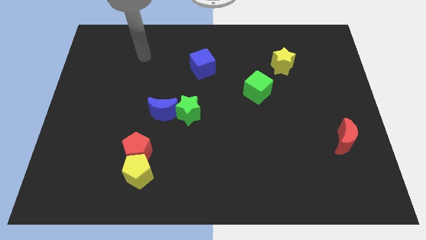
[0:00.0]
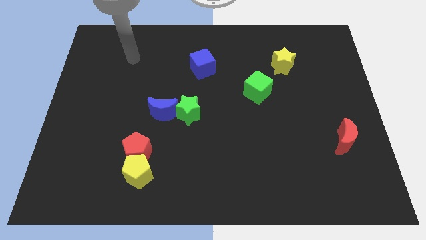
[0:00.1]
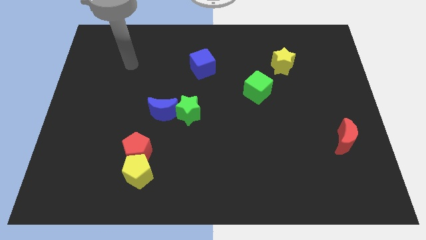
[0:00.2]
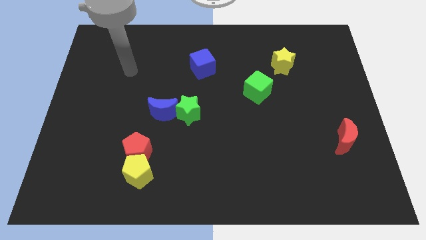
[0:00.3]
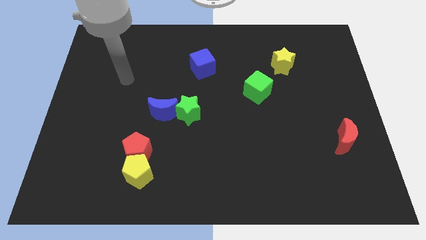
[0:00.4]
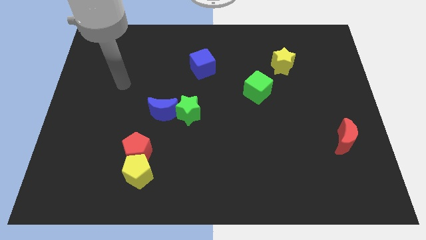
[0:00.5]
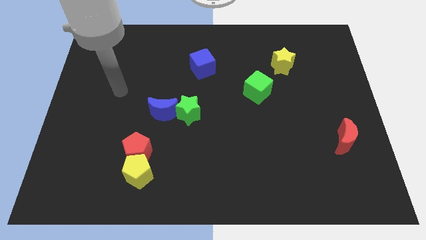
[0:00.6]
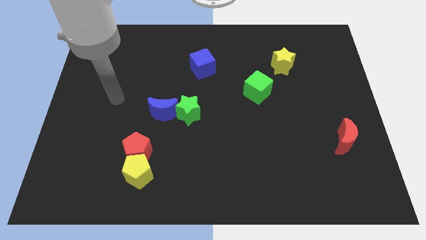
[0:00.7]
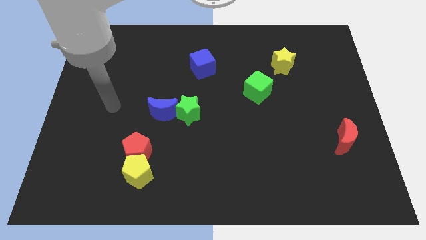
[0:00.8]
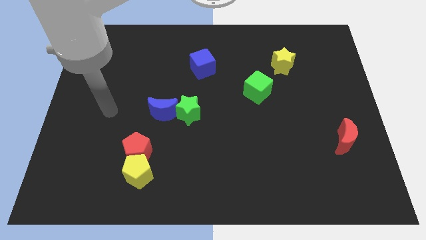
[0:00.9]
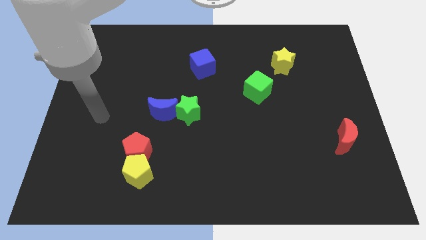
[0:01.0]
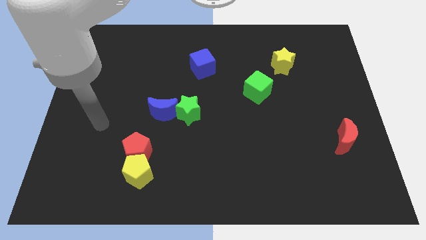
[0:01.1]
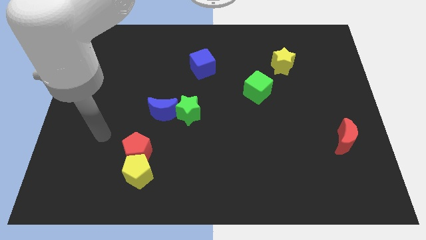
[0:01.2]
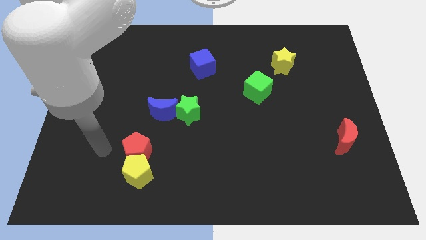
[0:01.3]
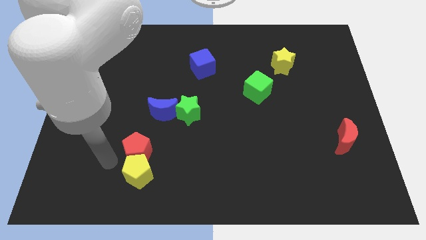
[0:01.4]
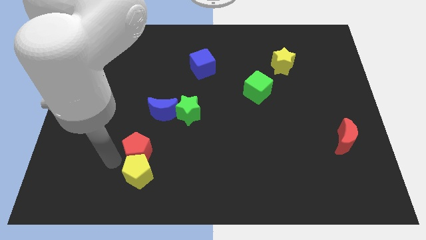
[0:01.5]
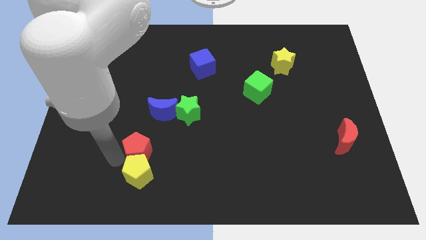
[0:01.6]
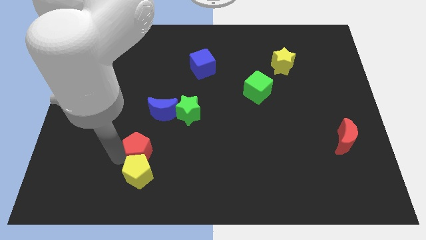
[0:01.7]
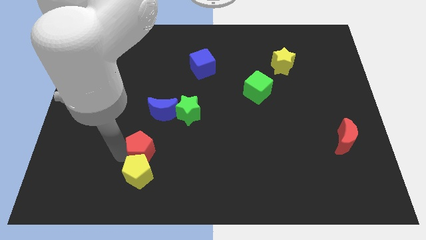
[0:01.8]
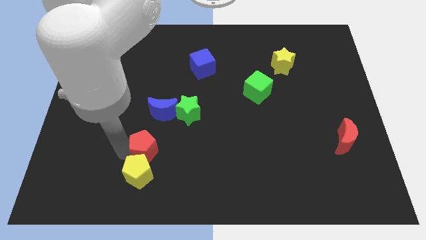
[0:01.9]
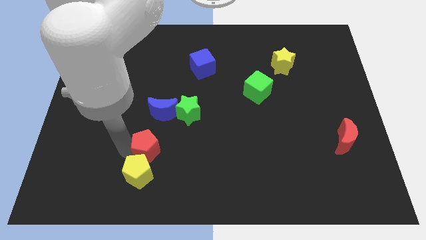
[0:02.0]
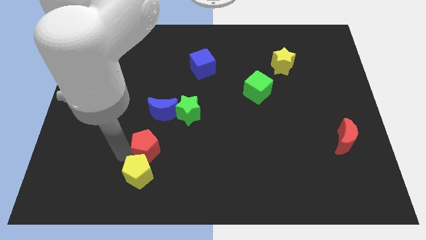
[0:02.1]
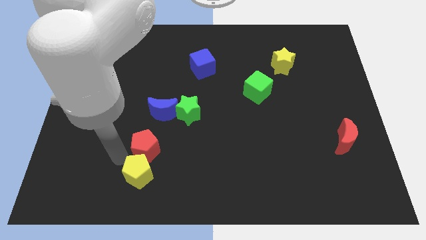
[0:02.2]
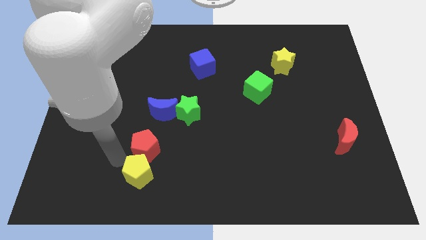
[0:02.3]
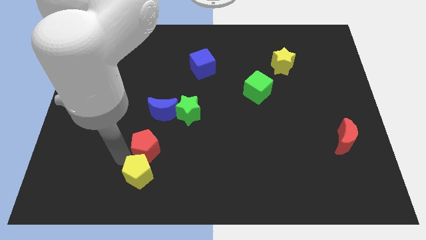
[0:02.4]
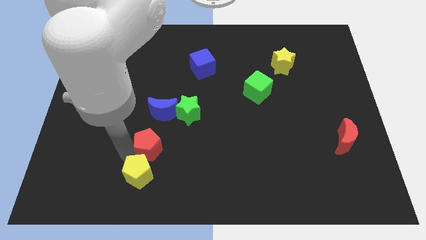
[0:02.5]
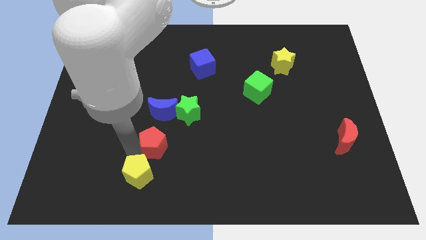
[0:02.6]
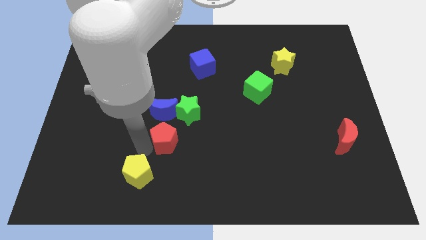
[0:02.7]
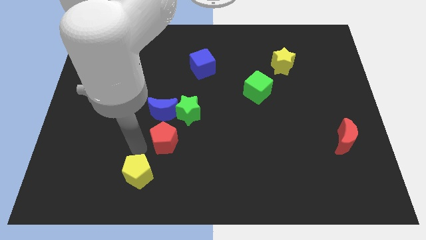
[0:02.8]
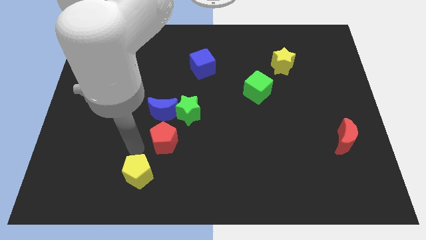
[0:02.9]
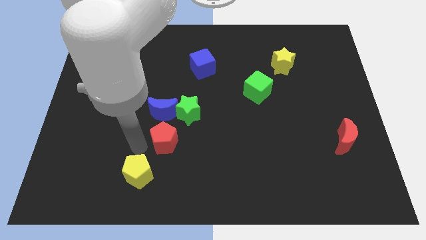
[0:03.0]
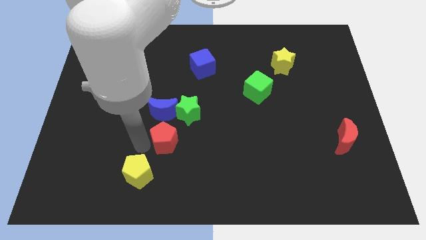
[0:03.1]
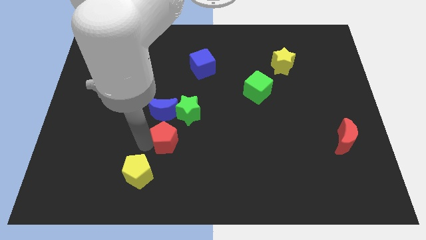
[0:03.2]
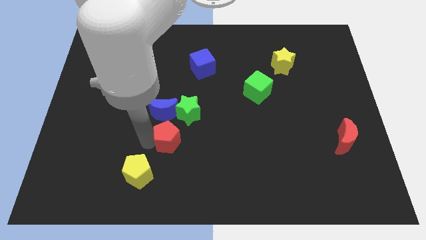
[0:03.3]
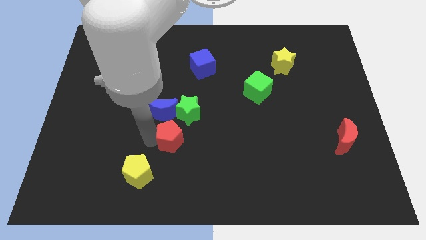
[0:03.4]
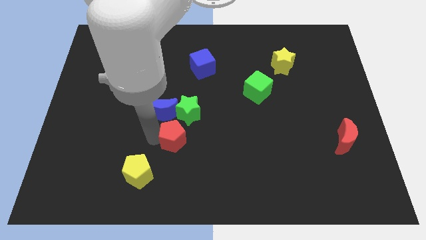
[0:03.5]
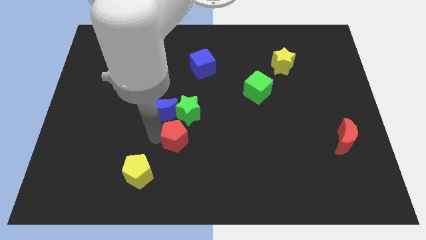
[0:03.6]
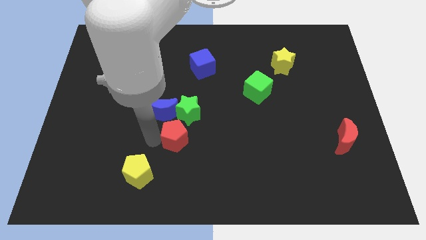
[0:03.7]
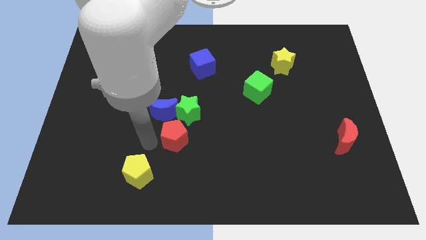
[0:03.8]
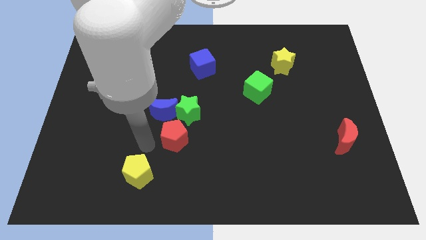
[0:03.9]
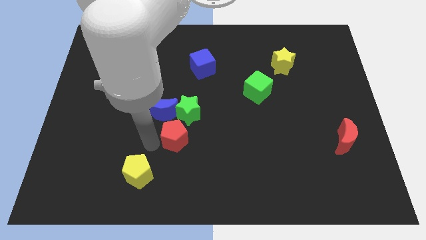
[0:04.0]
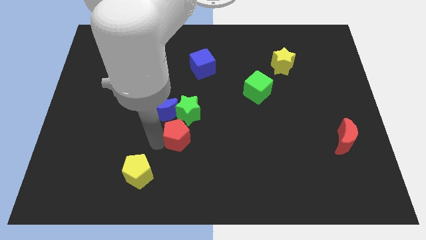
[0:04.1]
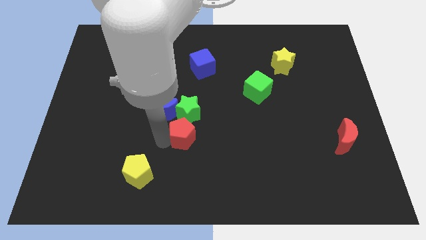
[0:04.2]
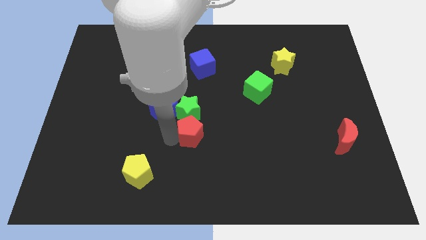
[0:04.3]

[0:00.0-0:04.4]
move the red pentagon diagonally down and to the right of the green star

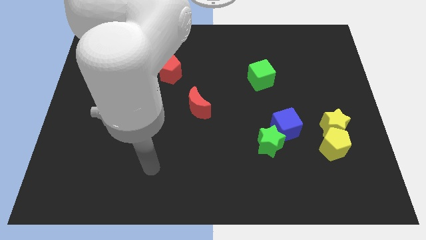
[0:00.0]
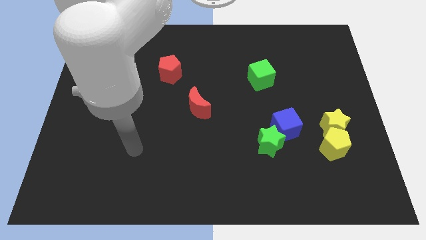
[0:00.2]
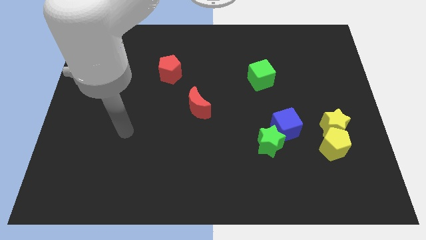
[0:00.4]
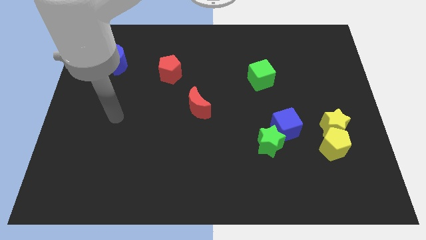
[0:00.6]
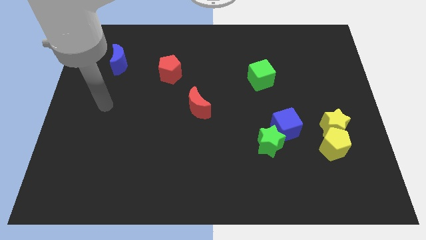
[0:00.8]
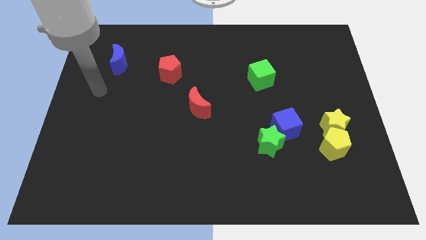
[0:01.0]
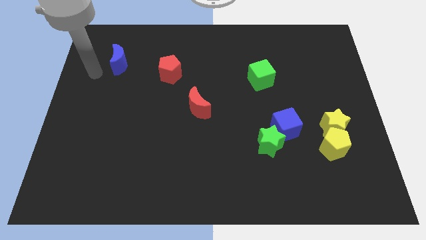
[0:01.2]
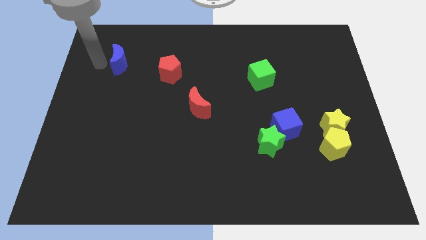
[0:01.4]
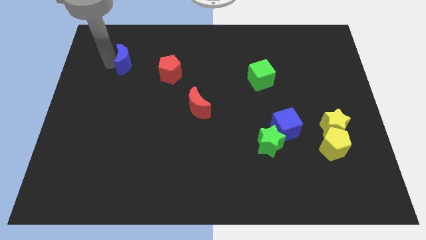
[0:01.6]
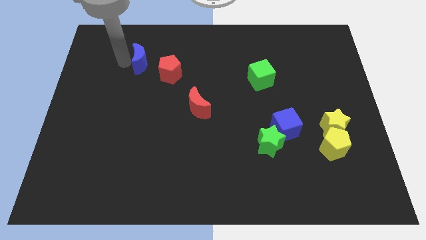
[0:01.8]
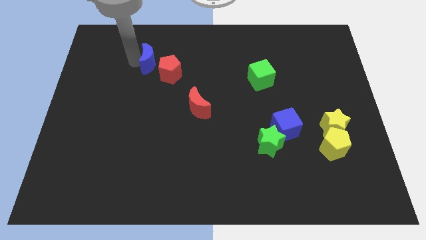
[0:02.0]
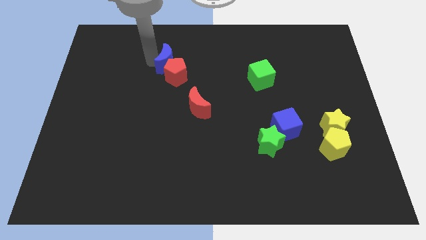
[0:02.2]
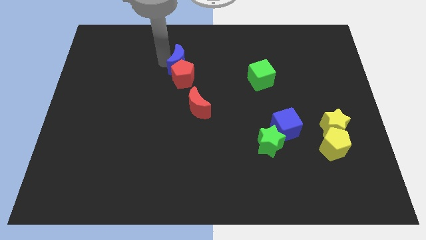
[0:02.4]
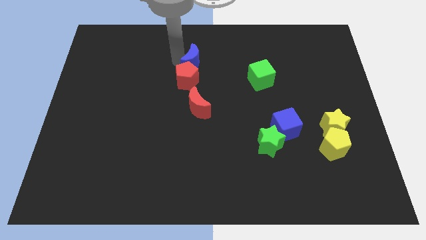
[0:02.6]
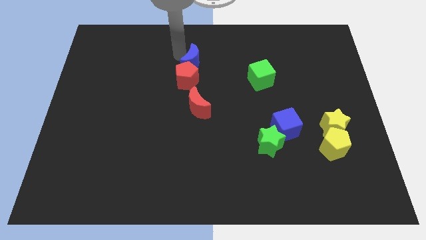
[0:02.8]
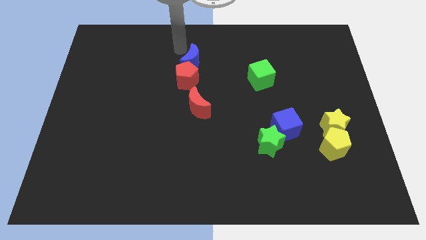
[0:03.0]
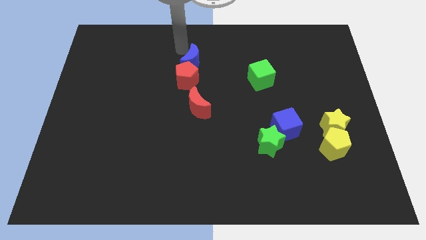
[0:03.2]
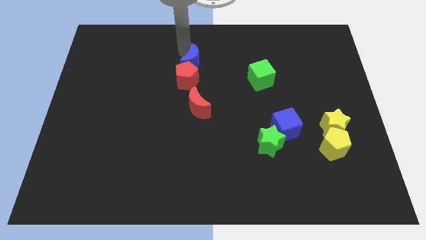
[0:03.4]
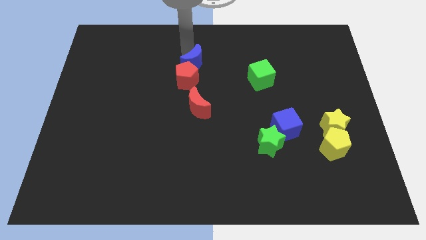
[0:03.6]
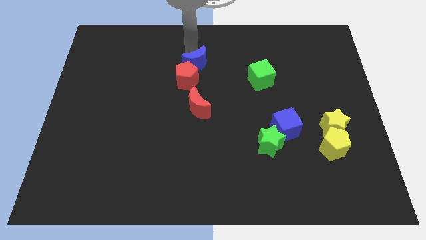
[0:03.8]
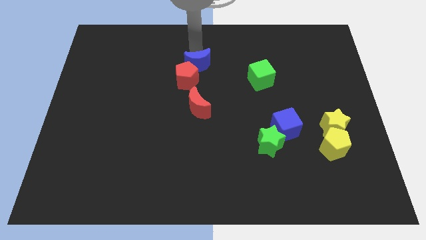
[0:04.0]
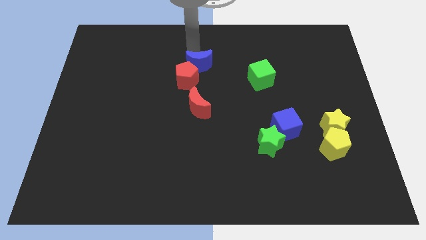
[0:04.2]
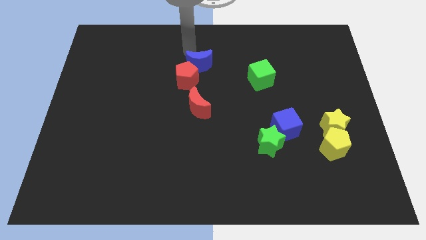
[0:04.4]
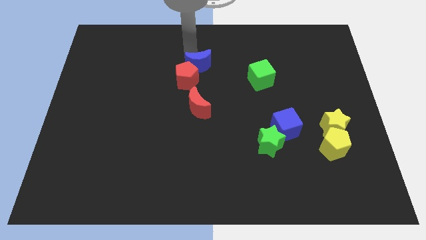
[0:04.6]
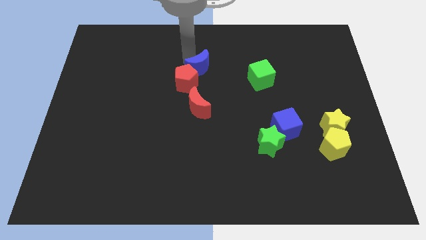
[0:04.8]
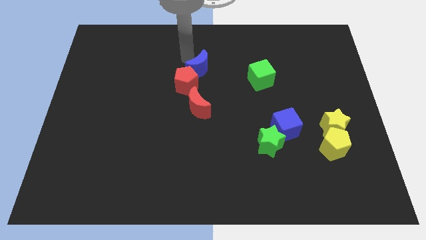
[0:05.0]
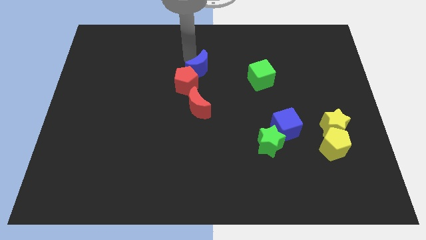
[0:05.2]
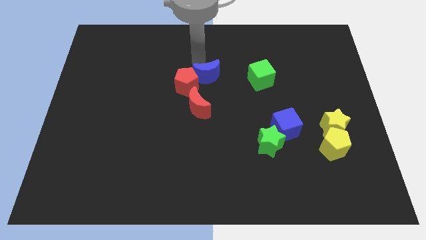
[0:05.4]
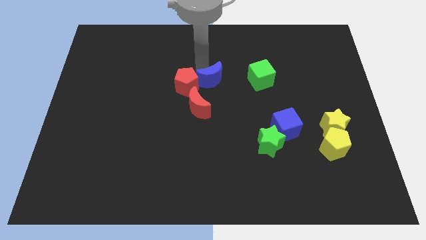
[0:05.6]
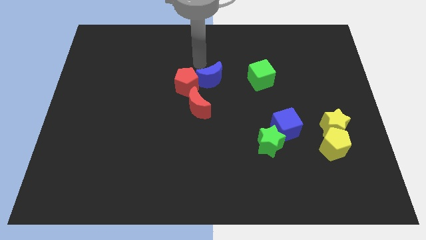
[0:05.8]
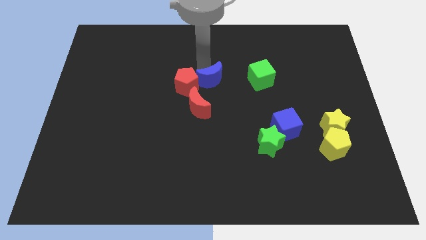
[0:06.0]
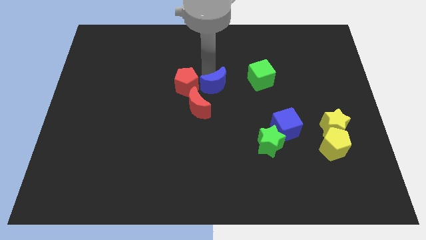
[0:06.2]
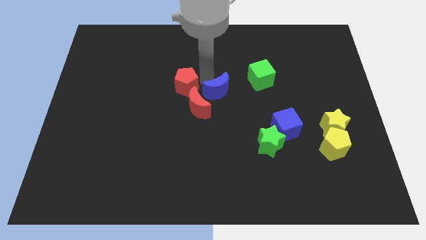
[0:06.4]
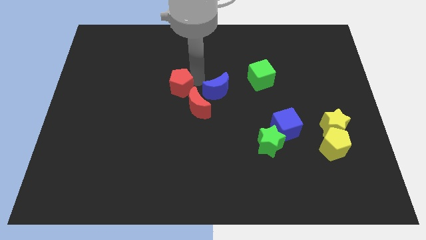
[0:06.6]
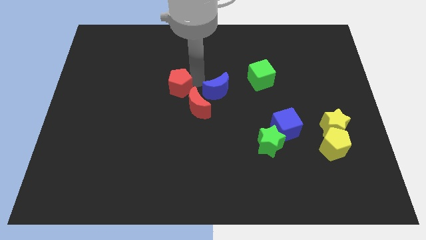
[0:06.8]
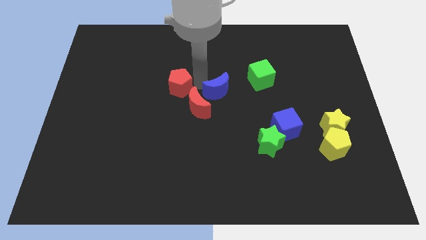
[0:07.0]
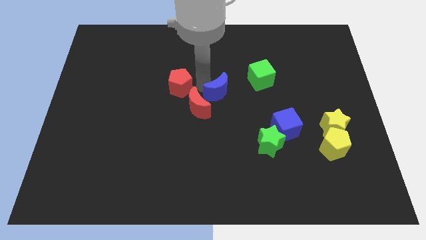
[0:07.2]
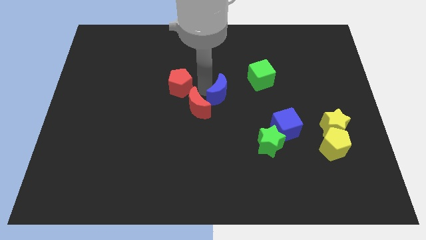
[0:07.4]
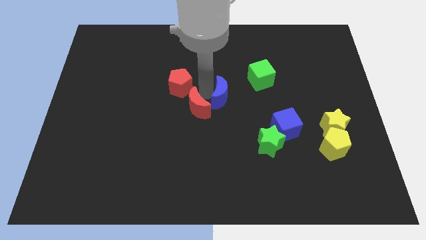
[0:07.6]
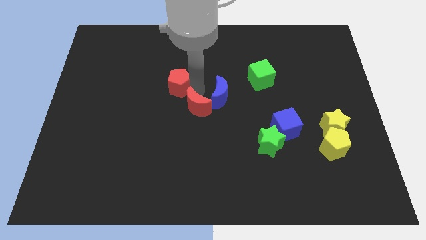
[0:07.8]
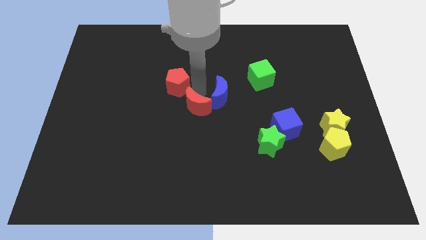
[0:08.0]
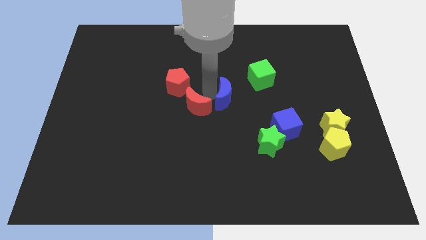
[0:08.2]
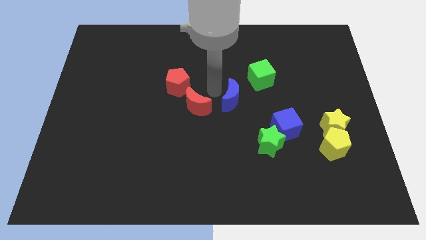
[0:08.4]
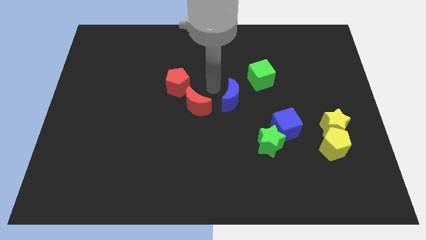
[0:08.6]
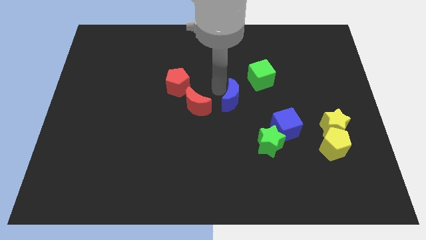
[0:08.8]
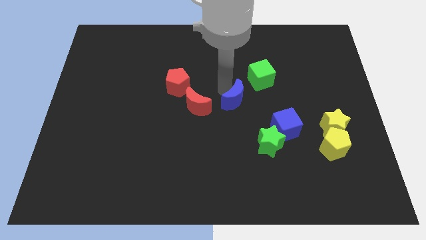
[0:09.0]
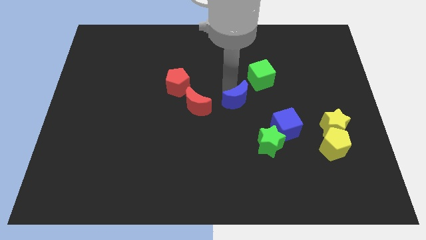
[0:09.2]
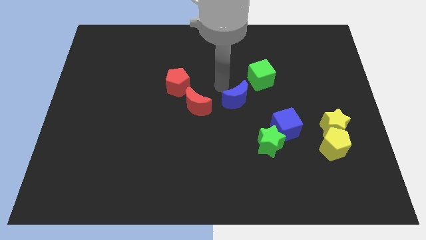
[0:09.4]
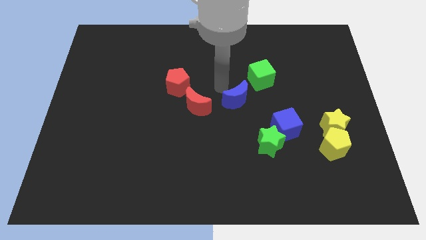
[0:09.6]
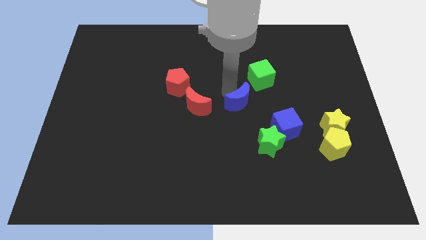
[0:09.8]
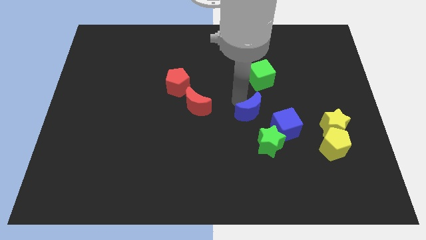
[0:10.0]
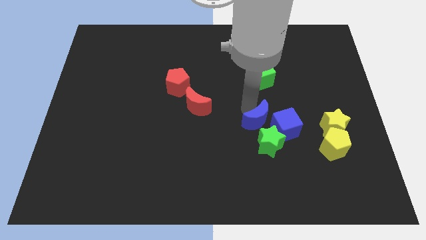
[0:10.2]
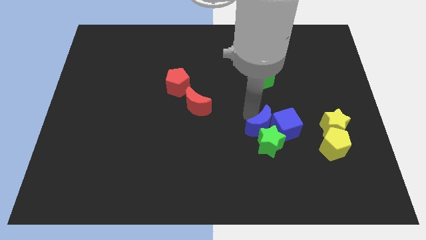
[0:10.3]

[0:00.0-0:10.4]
put the blue moon left of the yellow star
